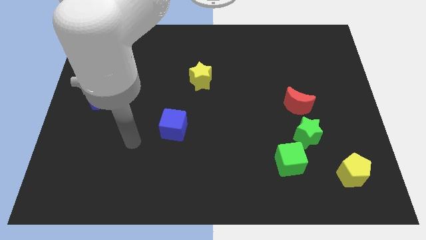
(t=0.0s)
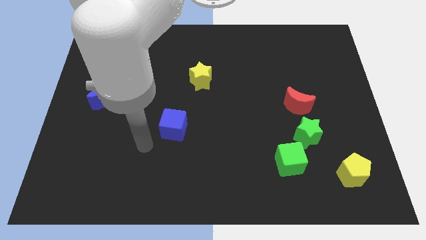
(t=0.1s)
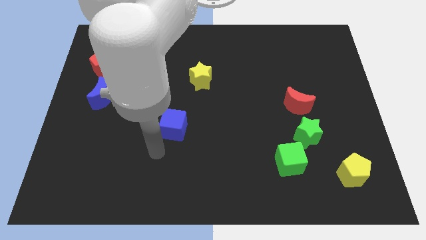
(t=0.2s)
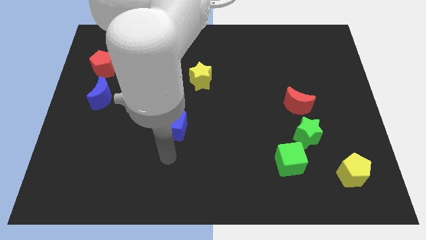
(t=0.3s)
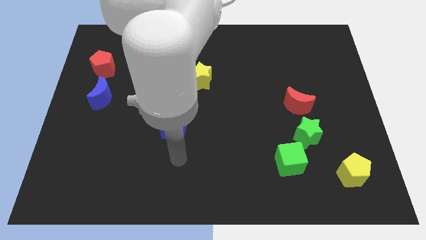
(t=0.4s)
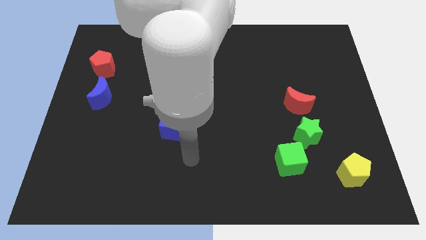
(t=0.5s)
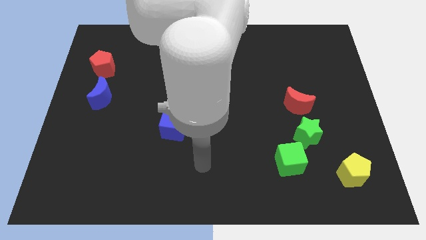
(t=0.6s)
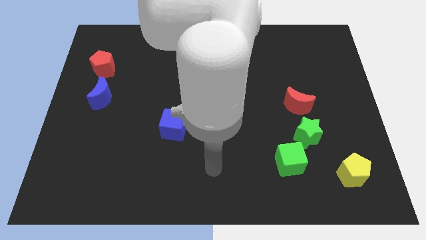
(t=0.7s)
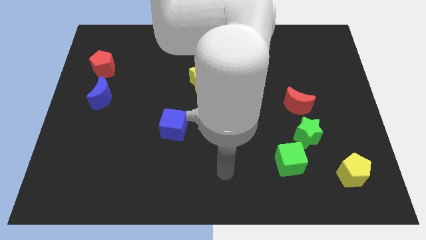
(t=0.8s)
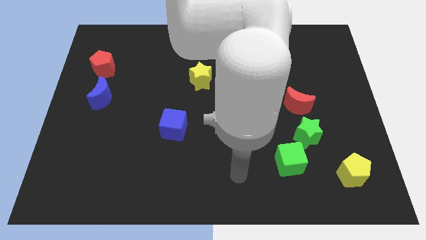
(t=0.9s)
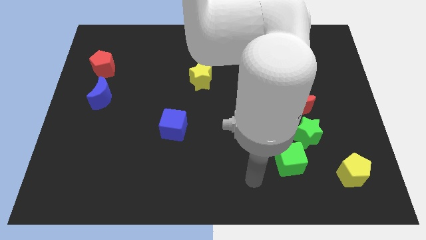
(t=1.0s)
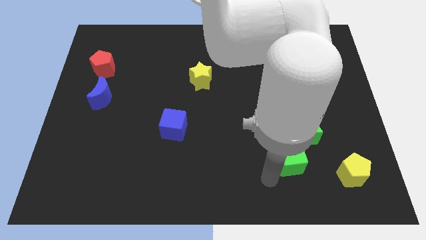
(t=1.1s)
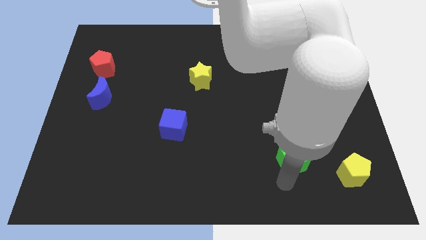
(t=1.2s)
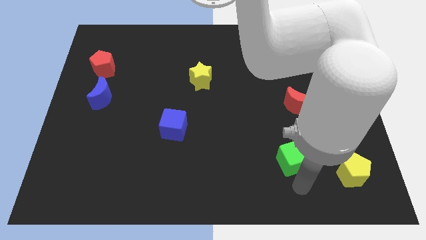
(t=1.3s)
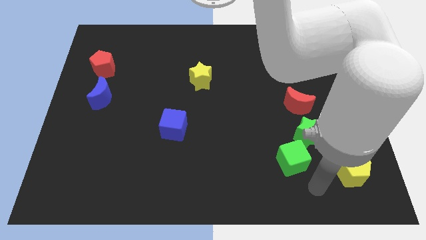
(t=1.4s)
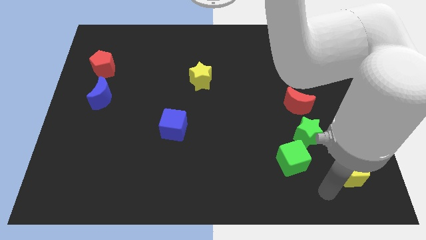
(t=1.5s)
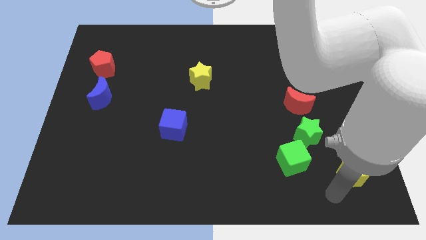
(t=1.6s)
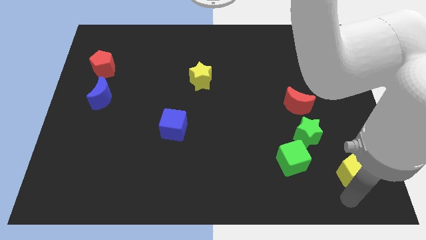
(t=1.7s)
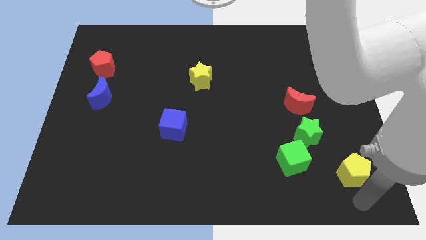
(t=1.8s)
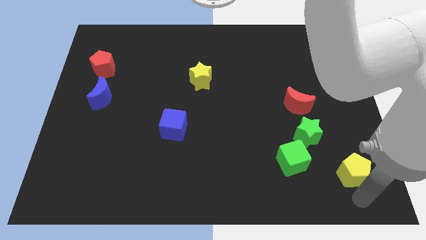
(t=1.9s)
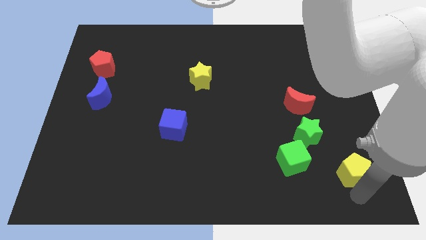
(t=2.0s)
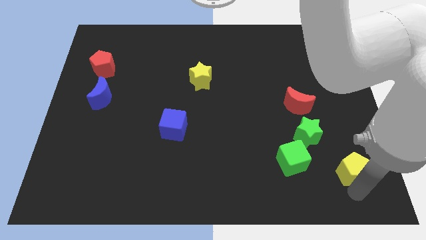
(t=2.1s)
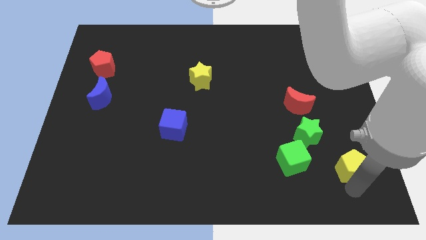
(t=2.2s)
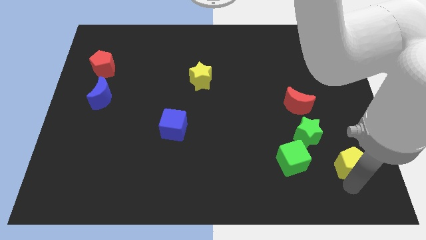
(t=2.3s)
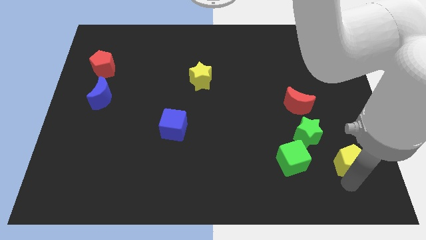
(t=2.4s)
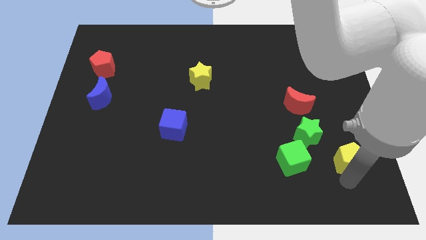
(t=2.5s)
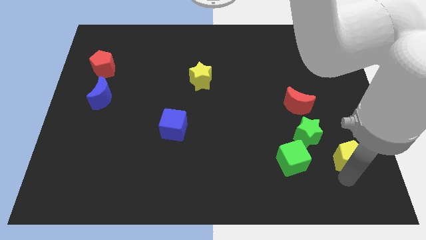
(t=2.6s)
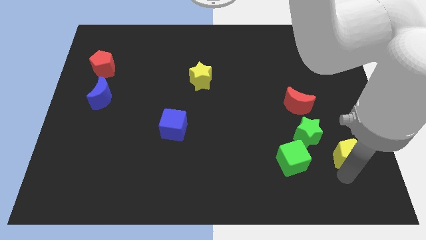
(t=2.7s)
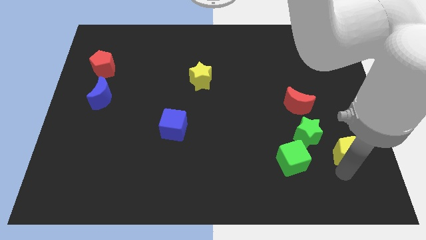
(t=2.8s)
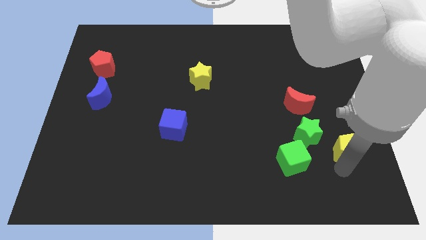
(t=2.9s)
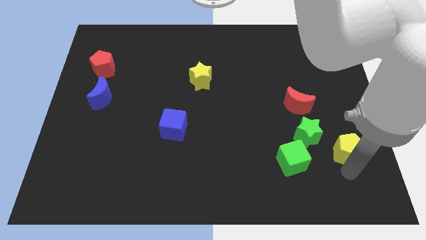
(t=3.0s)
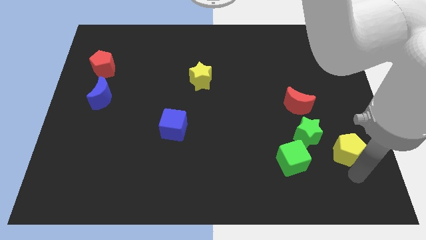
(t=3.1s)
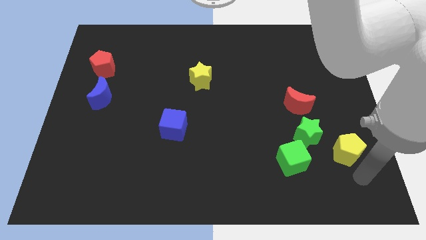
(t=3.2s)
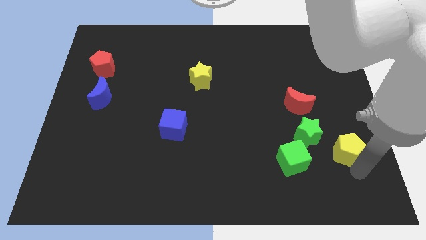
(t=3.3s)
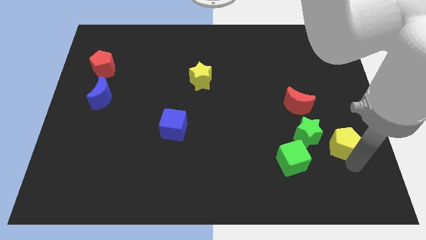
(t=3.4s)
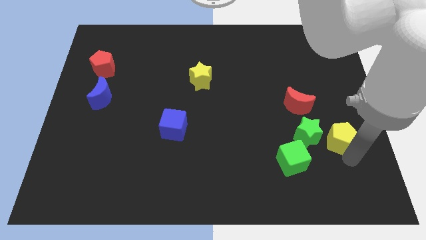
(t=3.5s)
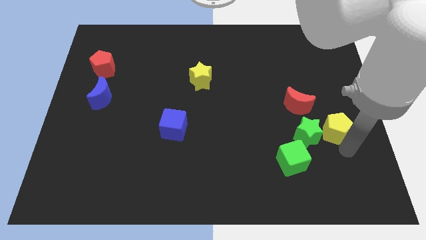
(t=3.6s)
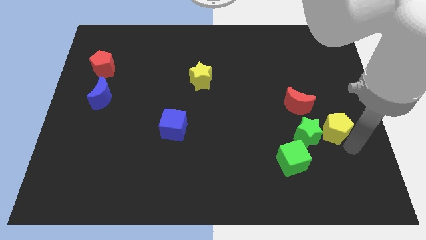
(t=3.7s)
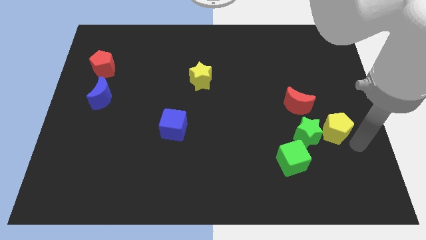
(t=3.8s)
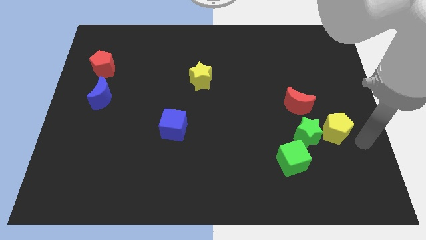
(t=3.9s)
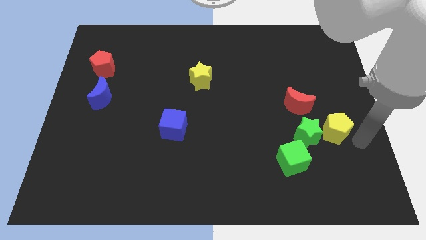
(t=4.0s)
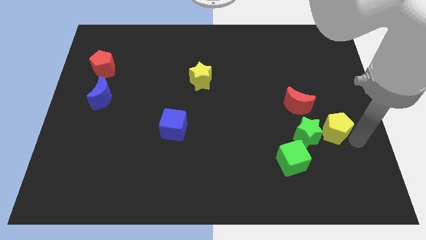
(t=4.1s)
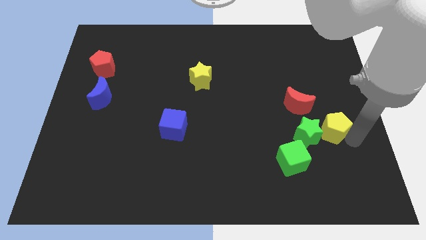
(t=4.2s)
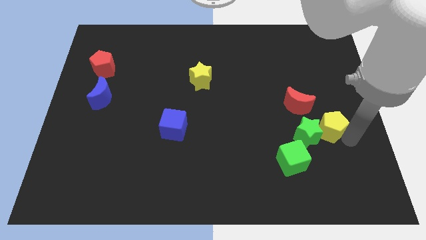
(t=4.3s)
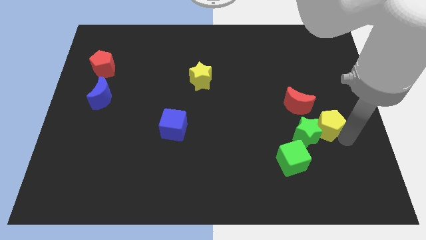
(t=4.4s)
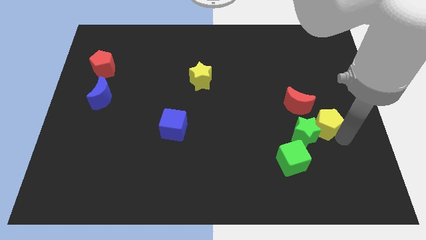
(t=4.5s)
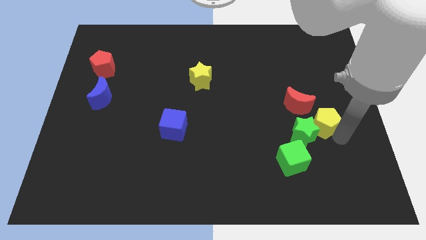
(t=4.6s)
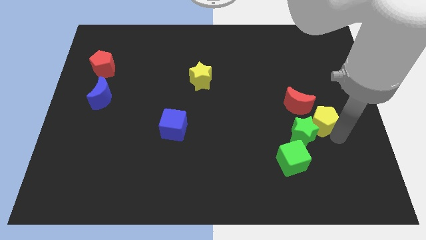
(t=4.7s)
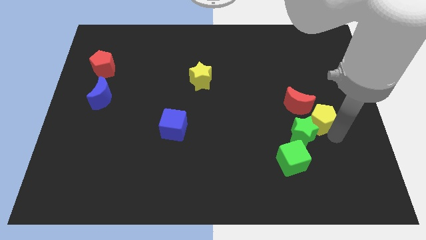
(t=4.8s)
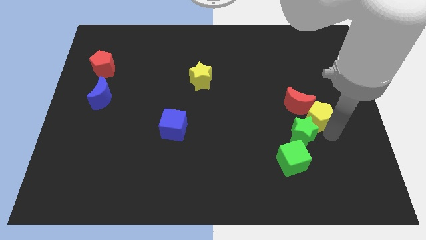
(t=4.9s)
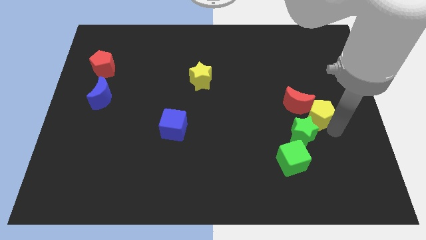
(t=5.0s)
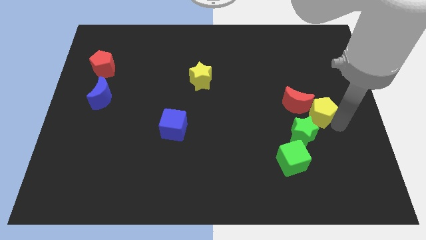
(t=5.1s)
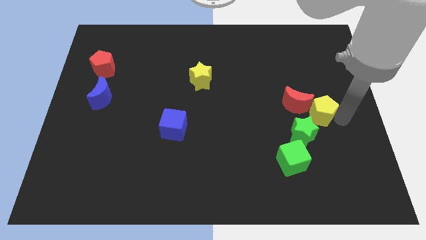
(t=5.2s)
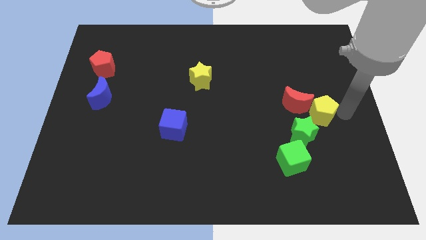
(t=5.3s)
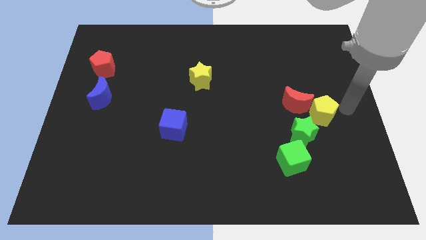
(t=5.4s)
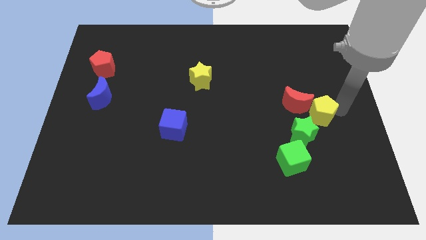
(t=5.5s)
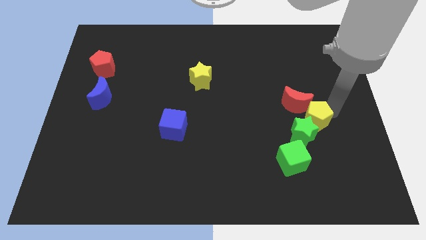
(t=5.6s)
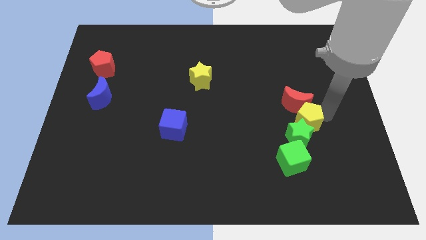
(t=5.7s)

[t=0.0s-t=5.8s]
slide the yellow pentagon above the green cube

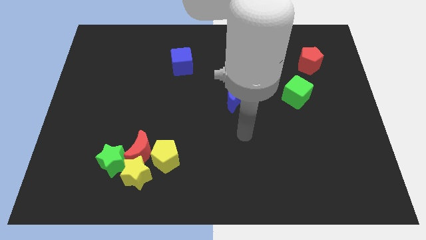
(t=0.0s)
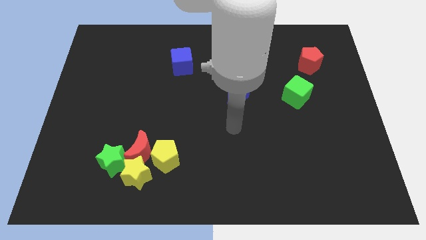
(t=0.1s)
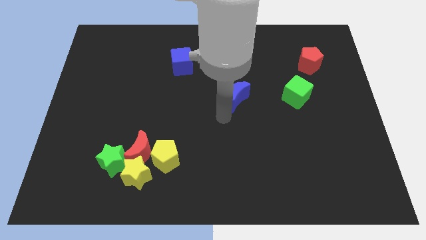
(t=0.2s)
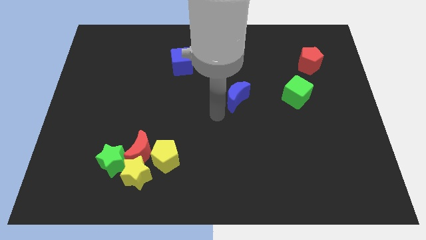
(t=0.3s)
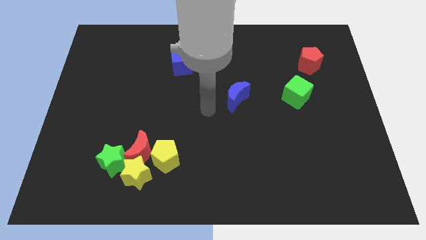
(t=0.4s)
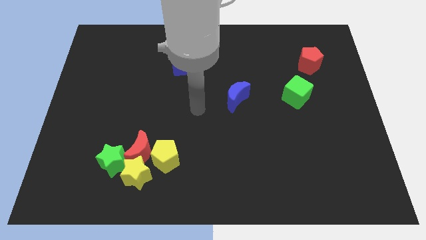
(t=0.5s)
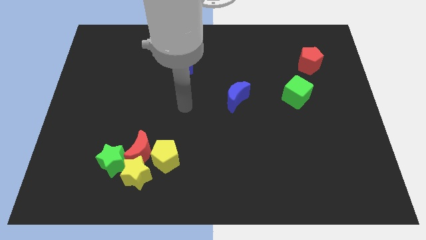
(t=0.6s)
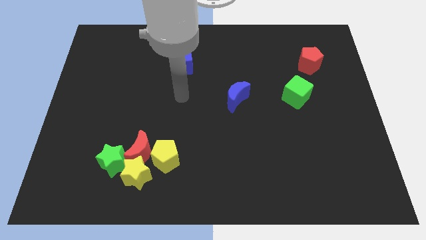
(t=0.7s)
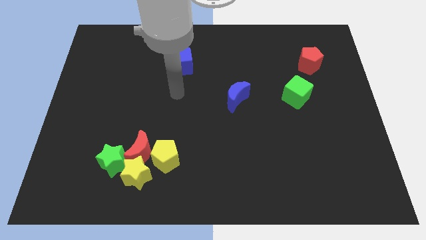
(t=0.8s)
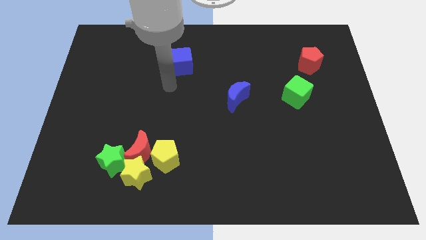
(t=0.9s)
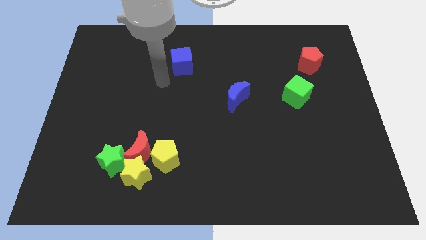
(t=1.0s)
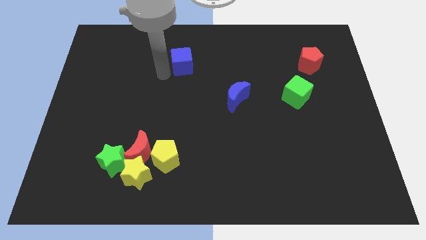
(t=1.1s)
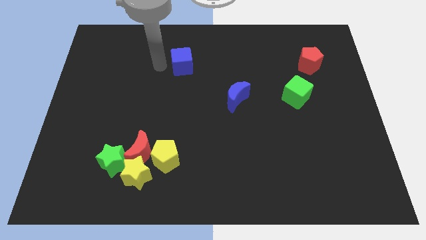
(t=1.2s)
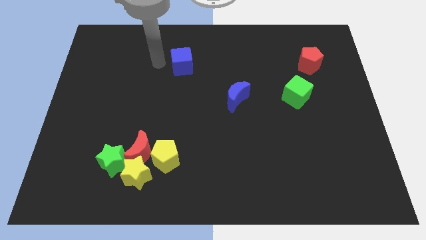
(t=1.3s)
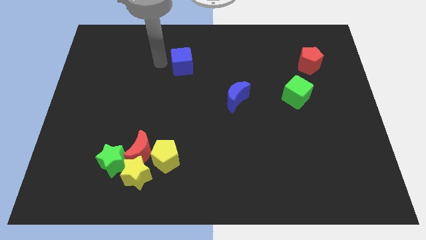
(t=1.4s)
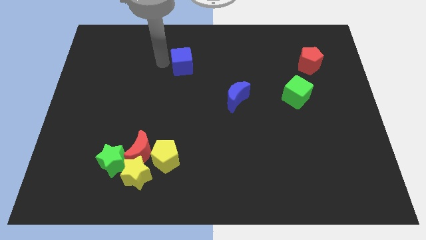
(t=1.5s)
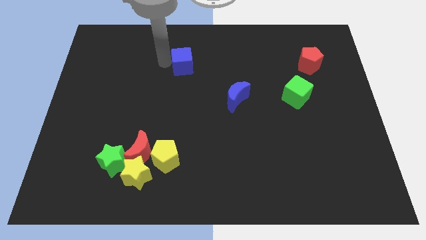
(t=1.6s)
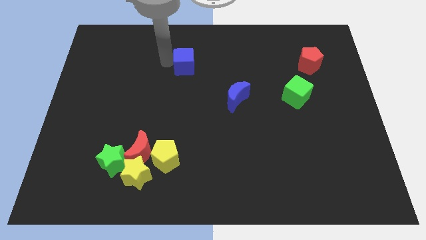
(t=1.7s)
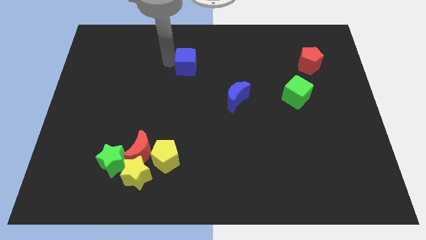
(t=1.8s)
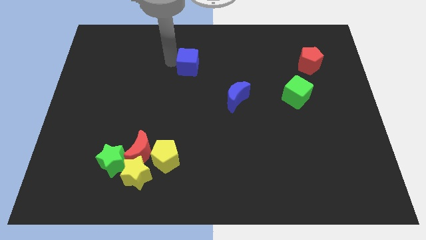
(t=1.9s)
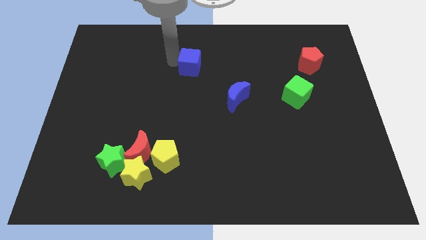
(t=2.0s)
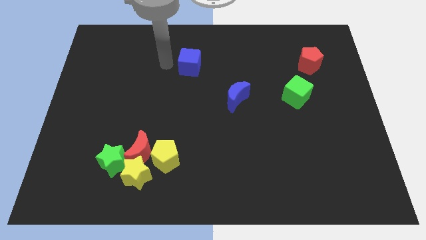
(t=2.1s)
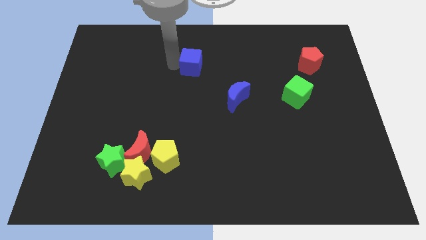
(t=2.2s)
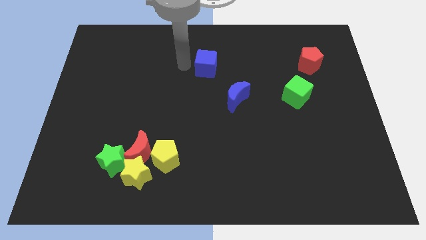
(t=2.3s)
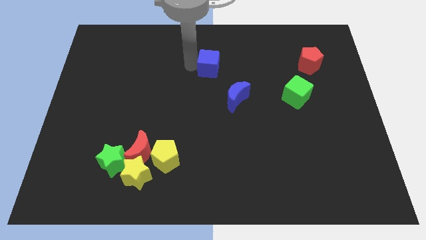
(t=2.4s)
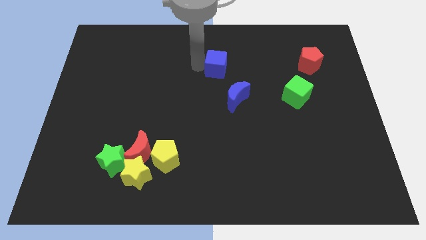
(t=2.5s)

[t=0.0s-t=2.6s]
move the blue cube above the blue moon
